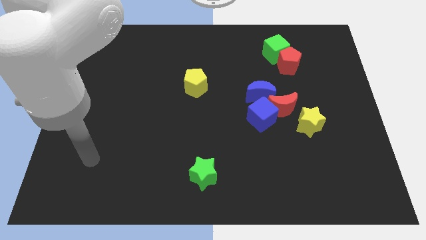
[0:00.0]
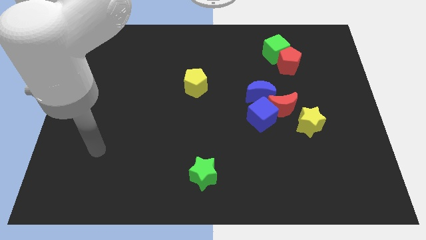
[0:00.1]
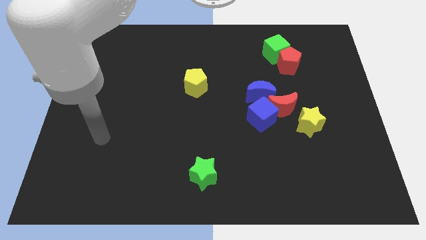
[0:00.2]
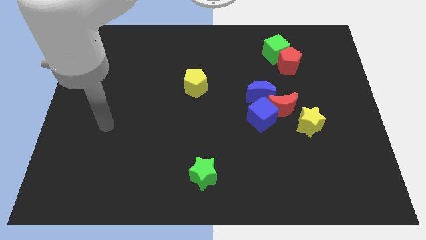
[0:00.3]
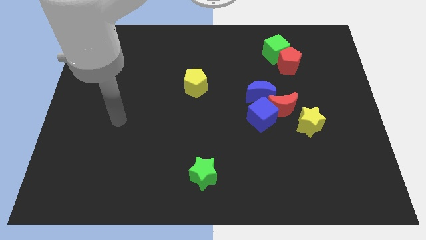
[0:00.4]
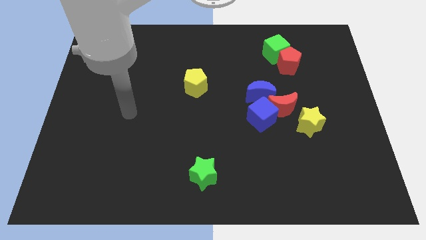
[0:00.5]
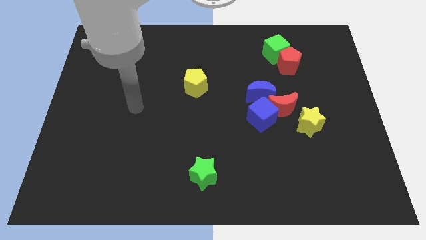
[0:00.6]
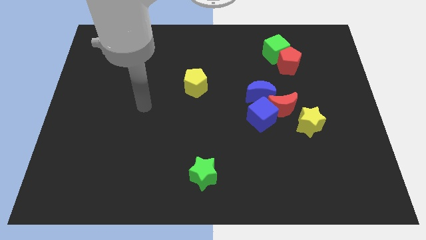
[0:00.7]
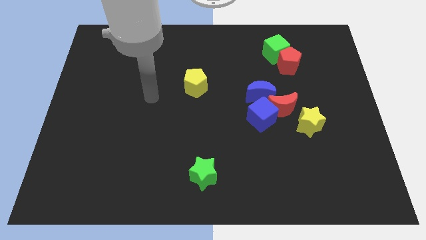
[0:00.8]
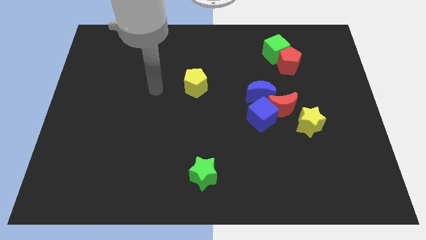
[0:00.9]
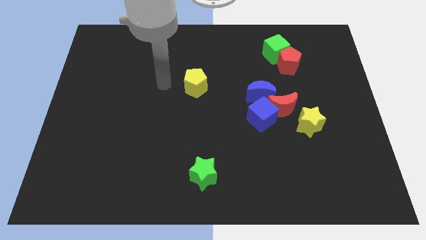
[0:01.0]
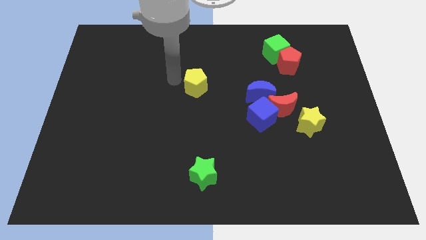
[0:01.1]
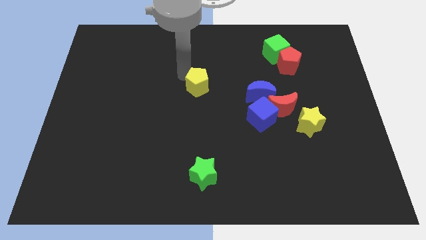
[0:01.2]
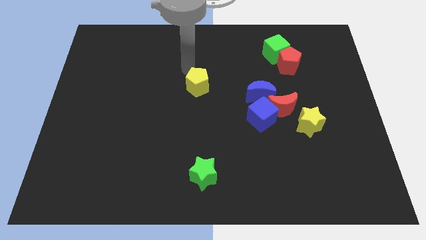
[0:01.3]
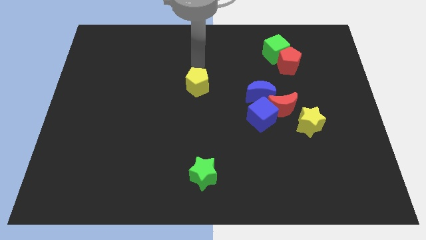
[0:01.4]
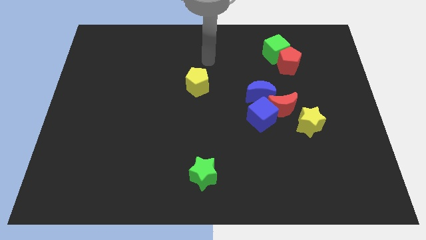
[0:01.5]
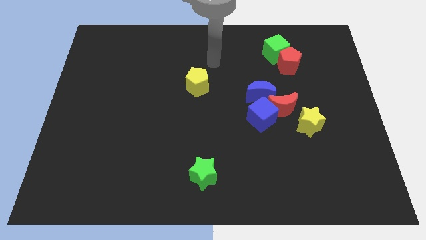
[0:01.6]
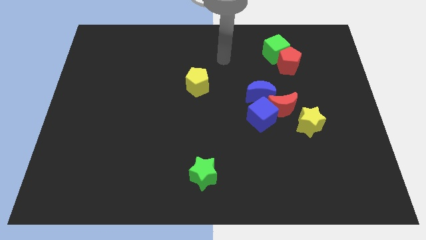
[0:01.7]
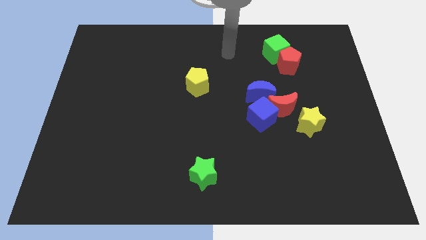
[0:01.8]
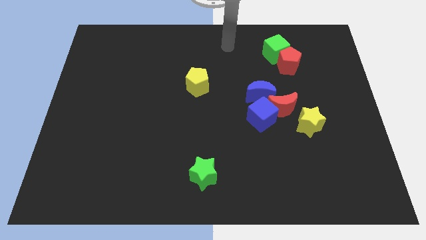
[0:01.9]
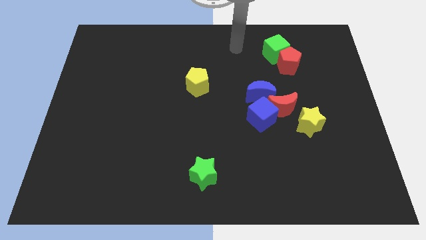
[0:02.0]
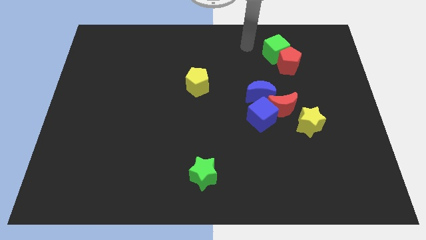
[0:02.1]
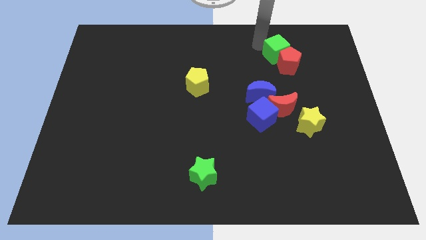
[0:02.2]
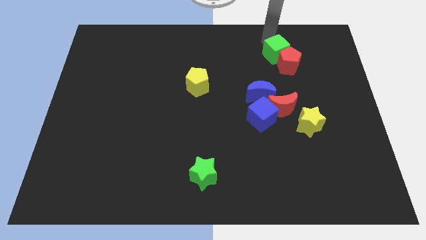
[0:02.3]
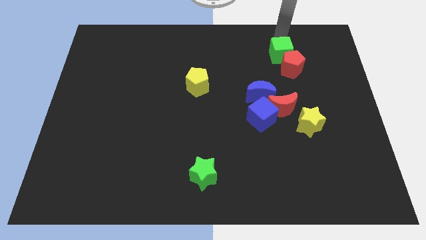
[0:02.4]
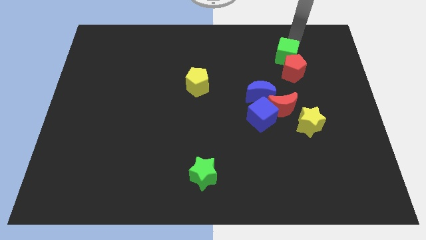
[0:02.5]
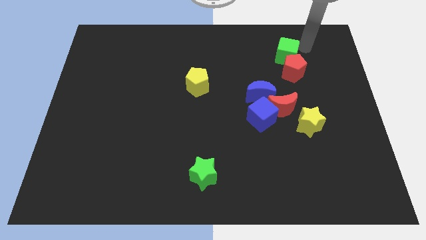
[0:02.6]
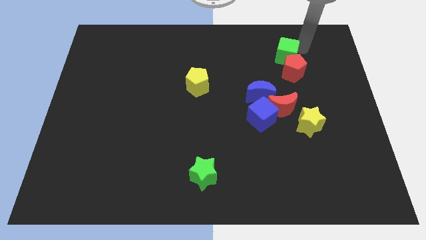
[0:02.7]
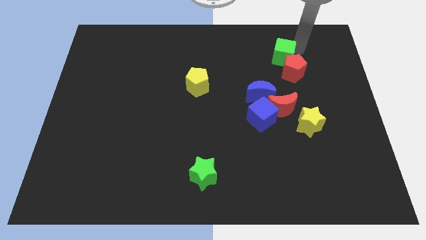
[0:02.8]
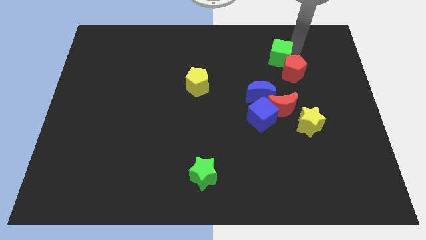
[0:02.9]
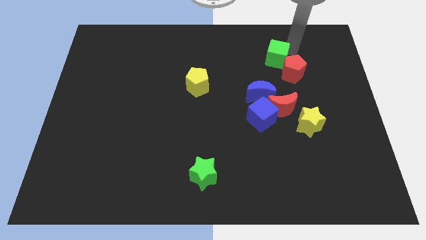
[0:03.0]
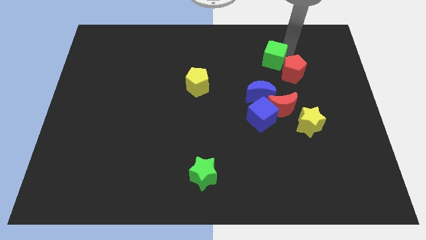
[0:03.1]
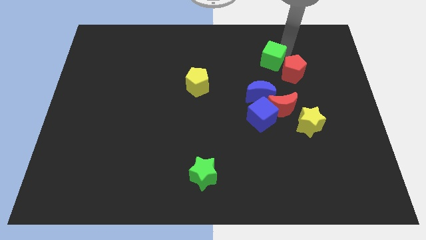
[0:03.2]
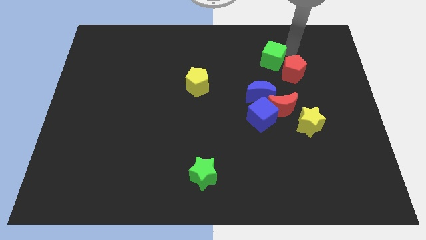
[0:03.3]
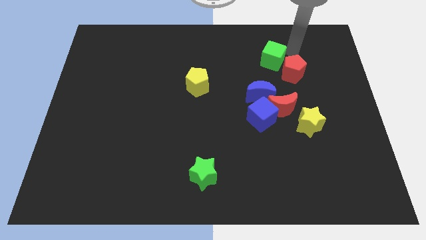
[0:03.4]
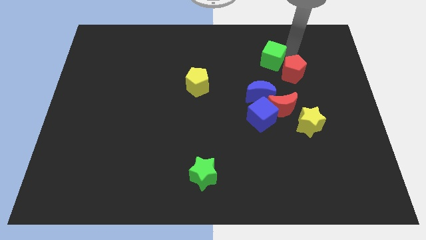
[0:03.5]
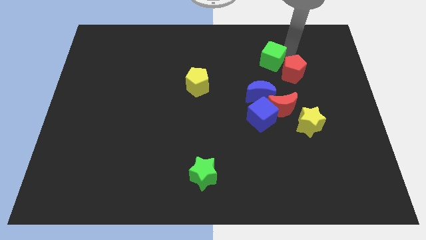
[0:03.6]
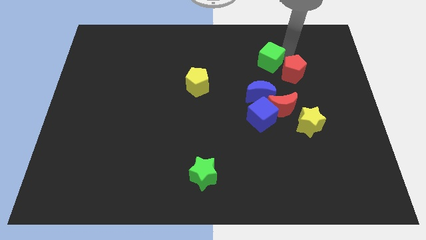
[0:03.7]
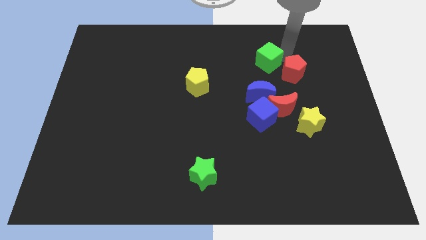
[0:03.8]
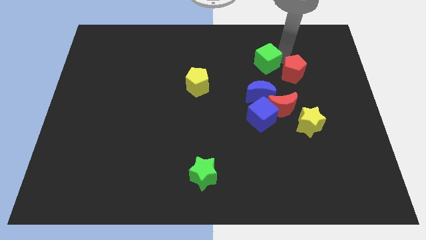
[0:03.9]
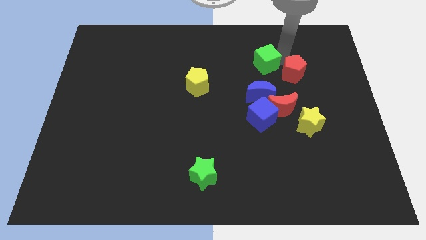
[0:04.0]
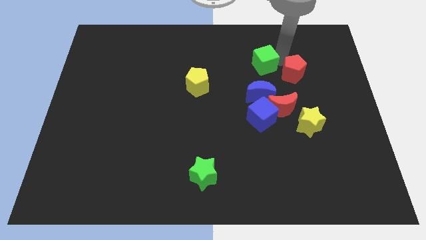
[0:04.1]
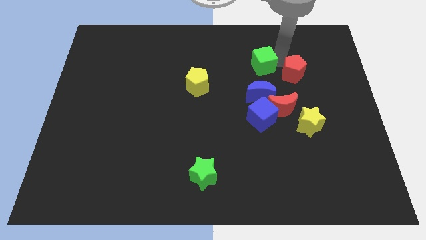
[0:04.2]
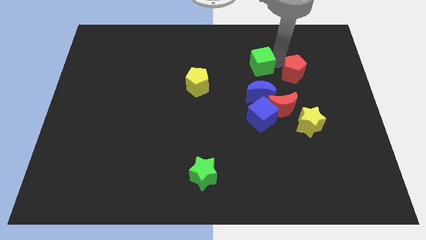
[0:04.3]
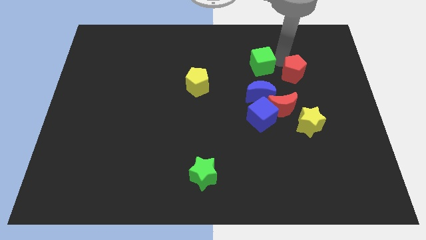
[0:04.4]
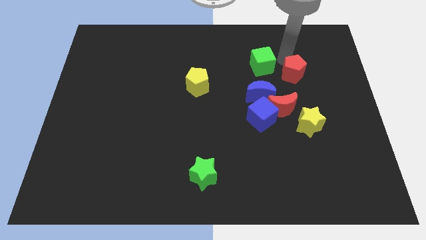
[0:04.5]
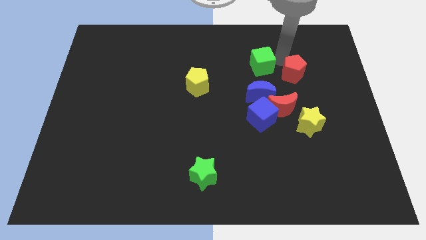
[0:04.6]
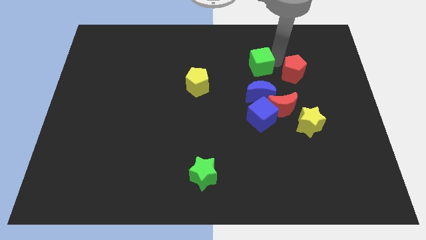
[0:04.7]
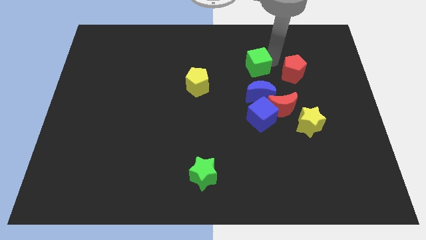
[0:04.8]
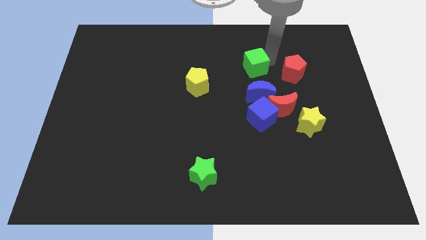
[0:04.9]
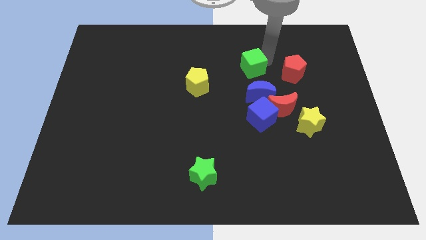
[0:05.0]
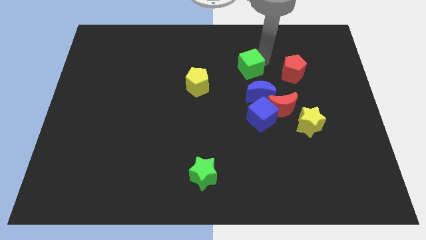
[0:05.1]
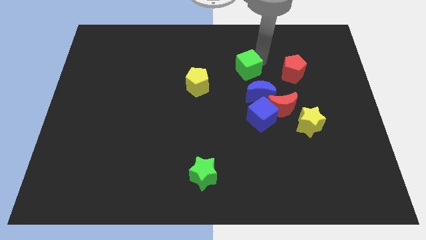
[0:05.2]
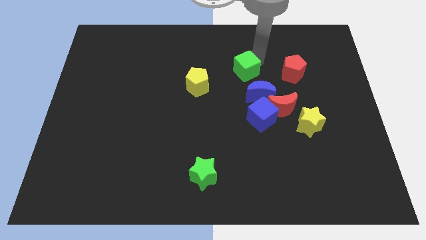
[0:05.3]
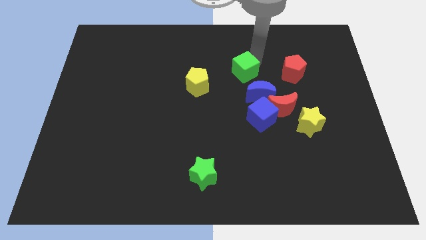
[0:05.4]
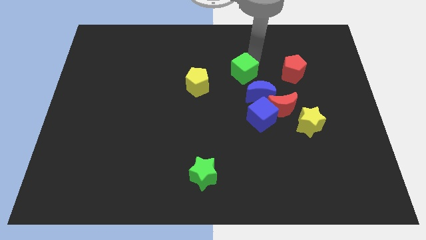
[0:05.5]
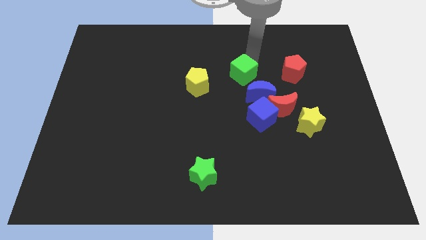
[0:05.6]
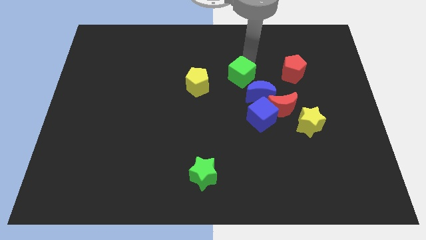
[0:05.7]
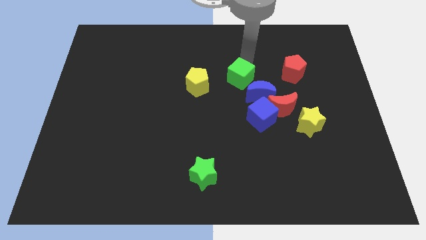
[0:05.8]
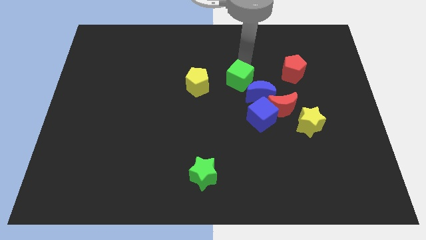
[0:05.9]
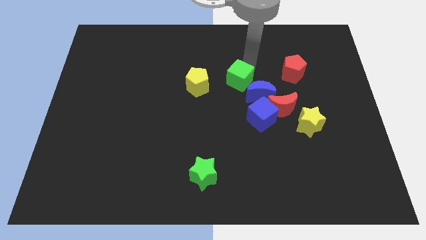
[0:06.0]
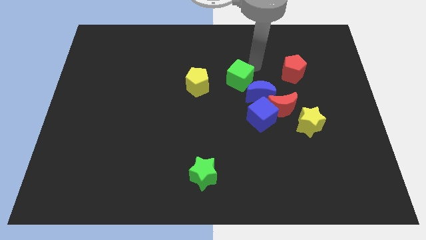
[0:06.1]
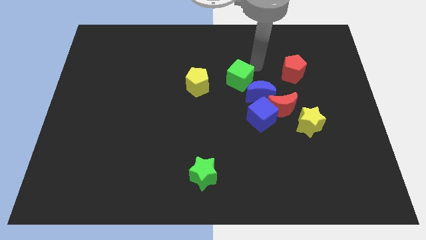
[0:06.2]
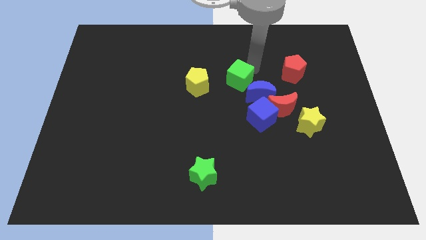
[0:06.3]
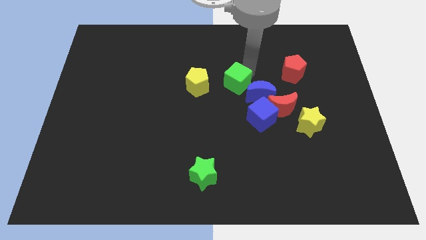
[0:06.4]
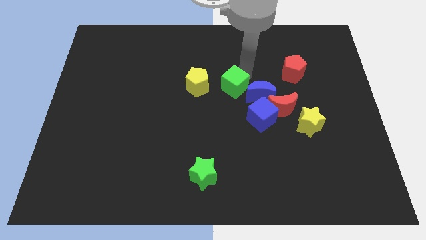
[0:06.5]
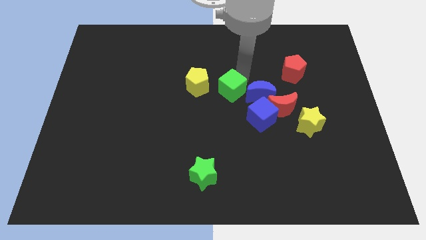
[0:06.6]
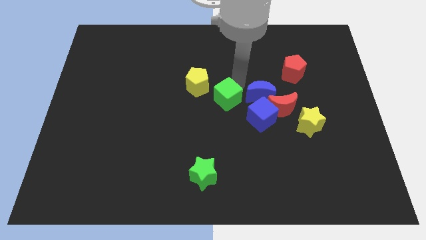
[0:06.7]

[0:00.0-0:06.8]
slide the green cube downwards and left

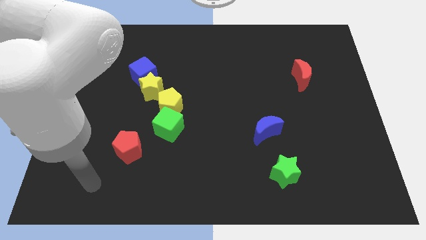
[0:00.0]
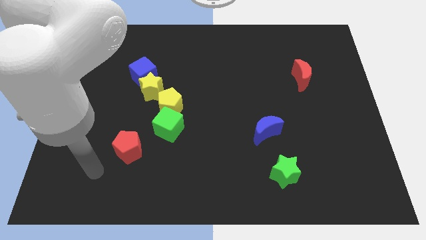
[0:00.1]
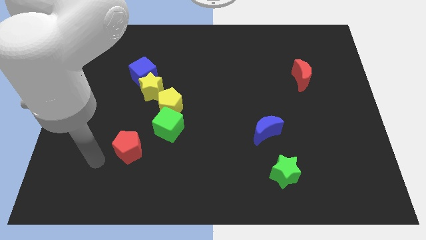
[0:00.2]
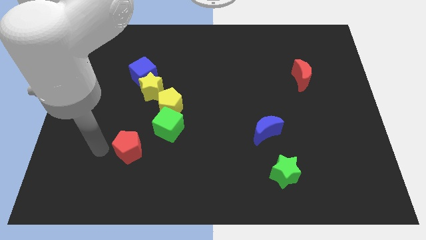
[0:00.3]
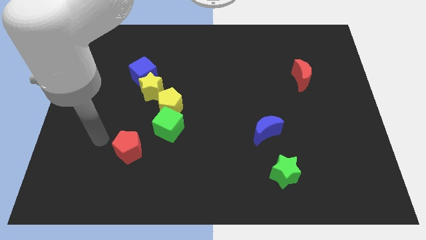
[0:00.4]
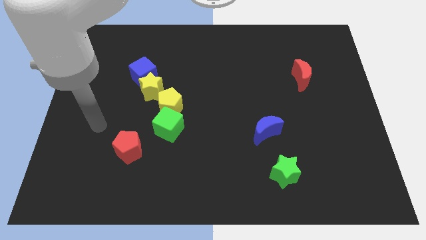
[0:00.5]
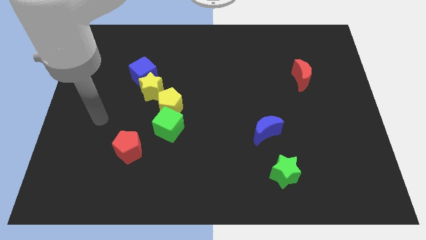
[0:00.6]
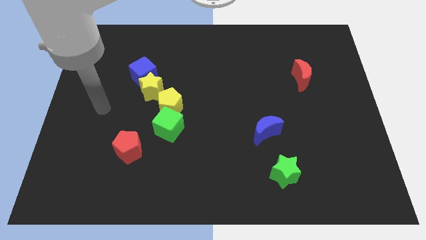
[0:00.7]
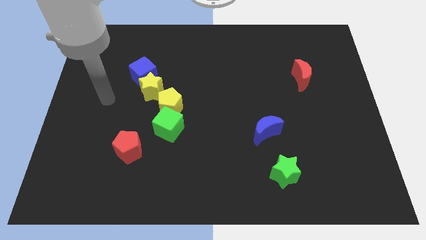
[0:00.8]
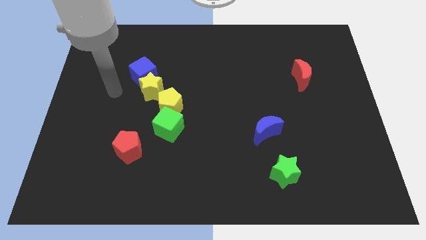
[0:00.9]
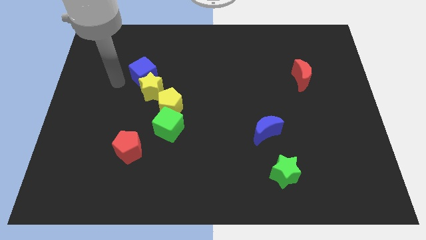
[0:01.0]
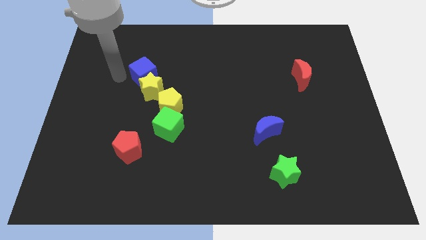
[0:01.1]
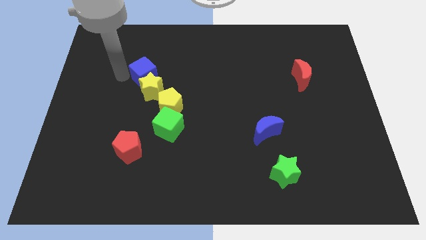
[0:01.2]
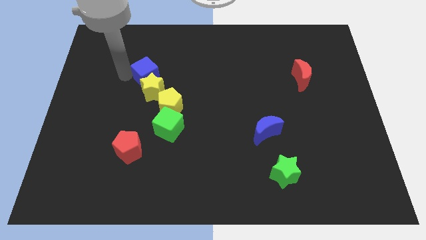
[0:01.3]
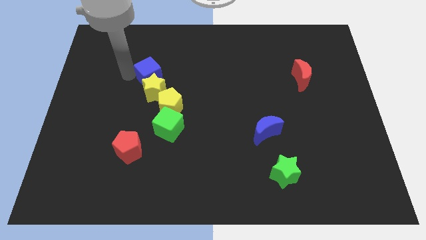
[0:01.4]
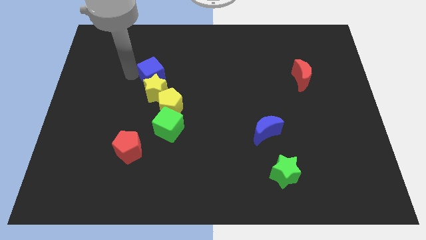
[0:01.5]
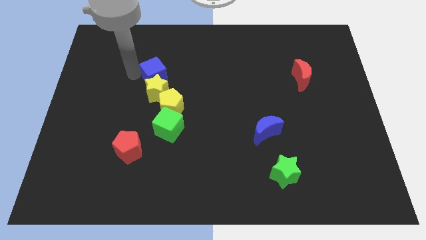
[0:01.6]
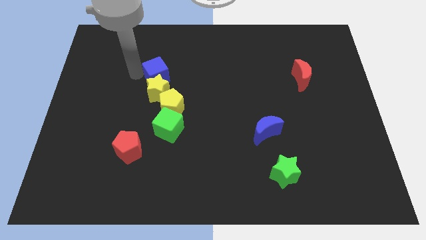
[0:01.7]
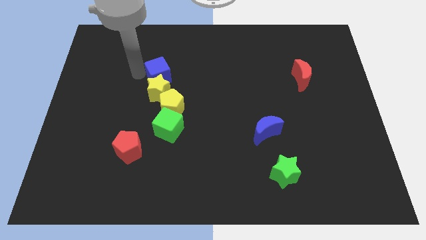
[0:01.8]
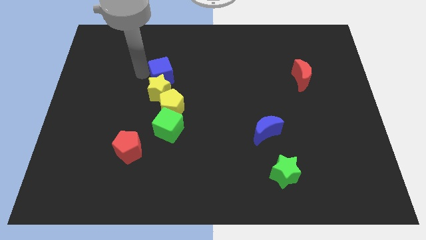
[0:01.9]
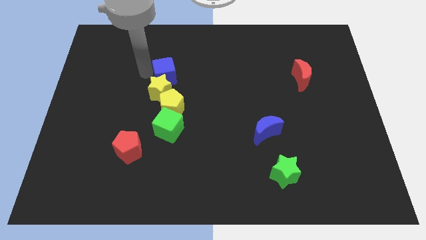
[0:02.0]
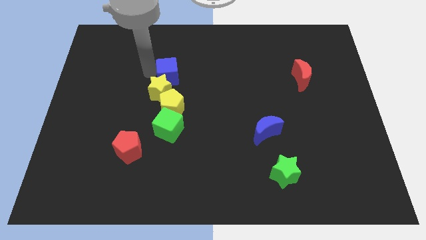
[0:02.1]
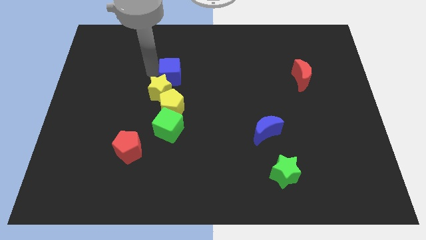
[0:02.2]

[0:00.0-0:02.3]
slightly slide the blue cube right
